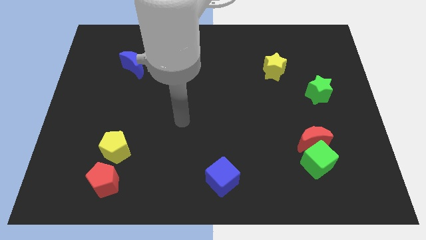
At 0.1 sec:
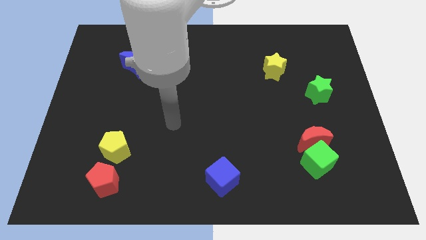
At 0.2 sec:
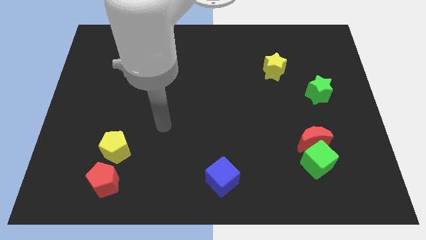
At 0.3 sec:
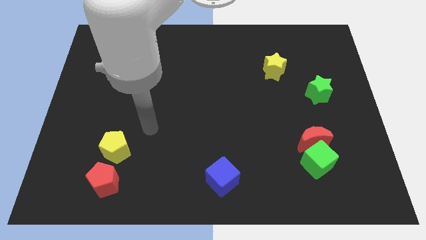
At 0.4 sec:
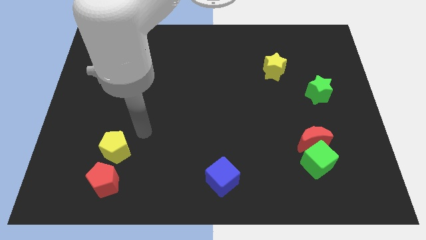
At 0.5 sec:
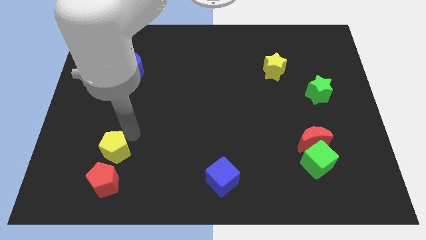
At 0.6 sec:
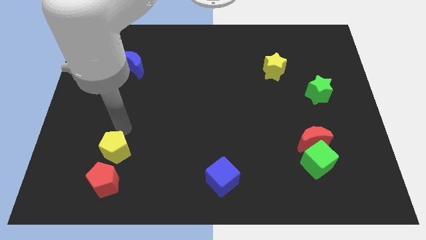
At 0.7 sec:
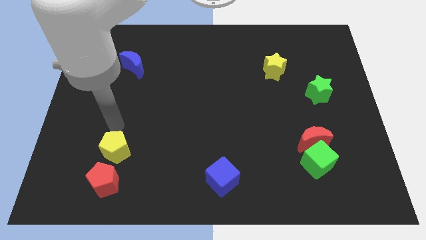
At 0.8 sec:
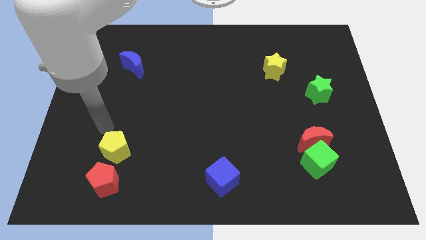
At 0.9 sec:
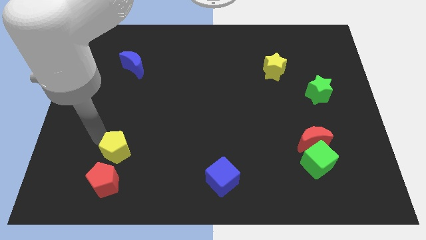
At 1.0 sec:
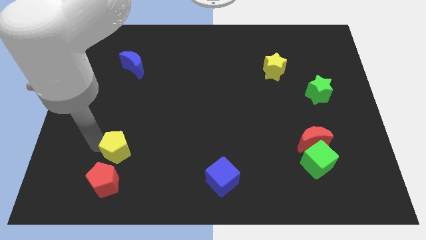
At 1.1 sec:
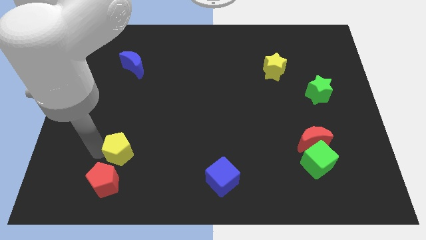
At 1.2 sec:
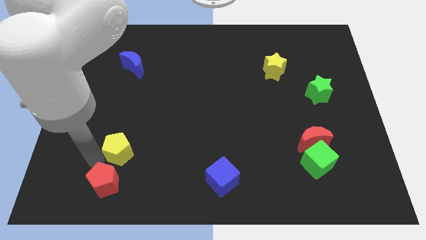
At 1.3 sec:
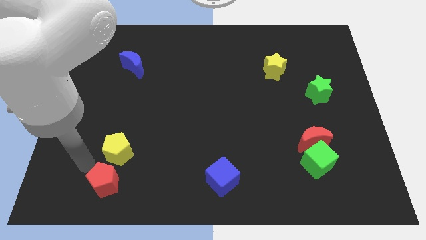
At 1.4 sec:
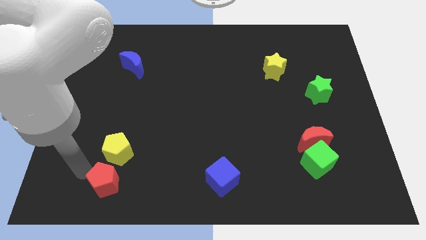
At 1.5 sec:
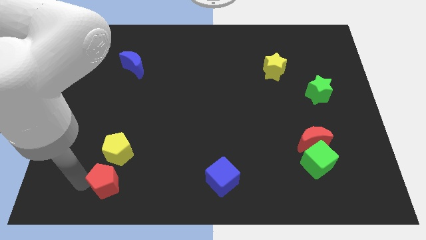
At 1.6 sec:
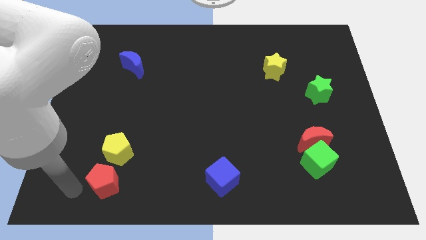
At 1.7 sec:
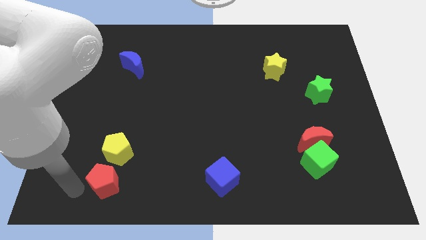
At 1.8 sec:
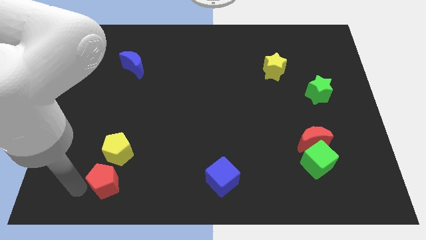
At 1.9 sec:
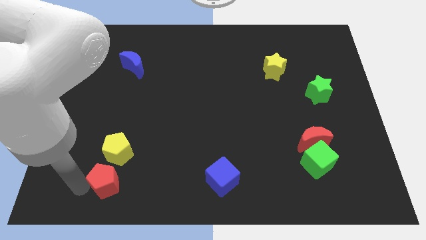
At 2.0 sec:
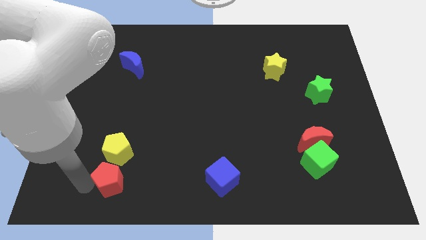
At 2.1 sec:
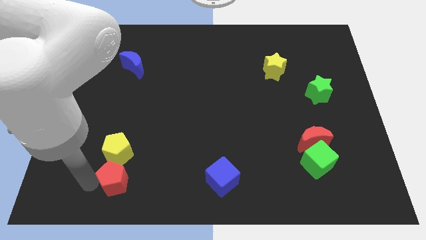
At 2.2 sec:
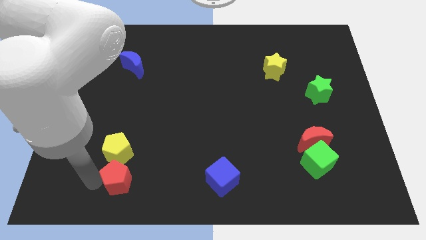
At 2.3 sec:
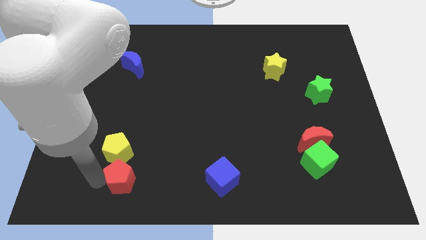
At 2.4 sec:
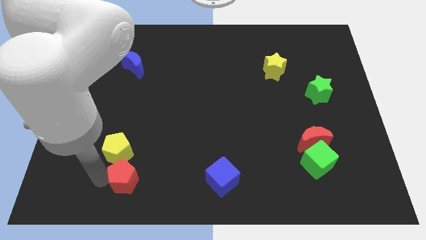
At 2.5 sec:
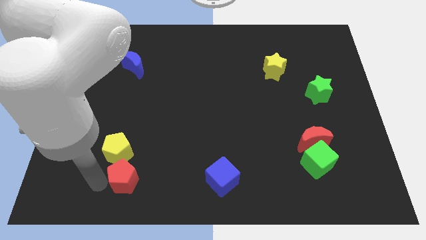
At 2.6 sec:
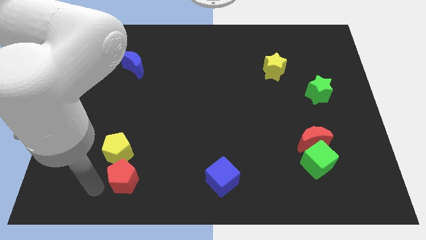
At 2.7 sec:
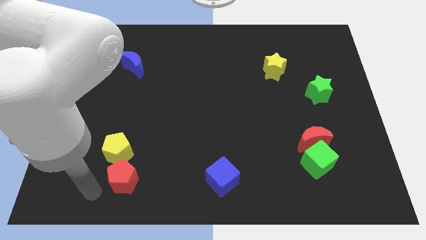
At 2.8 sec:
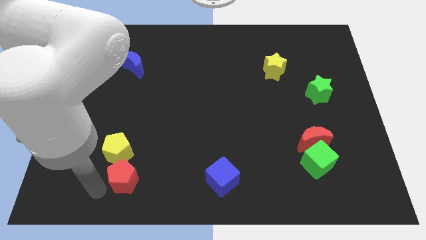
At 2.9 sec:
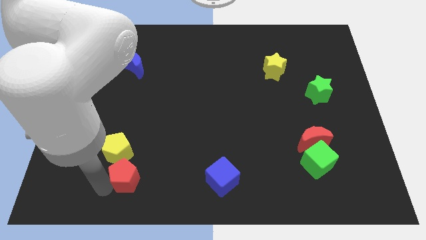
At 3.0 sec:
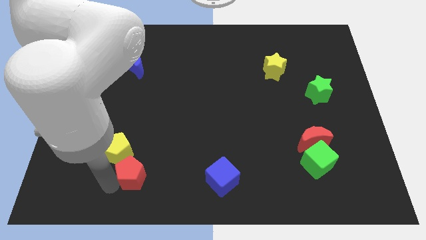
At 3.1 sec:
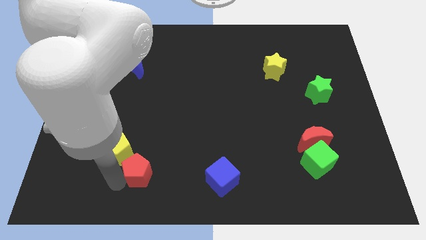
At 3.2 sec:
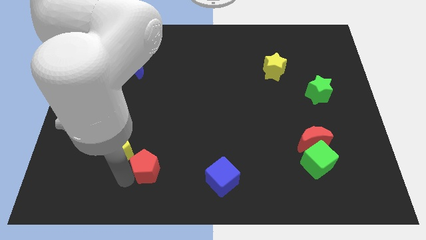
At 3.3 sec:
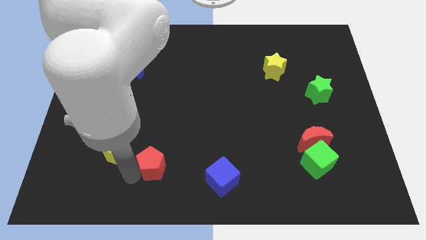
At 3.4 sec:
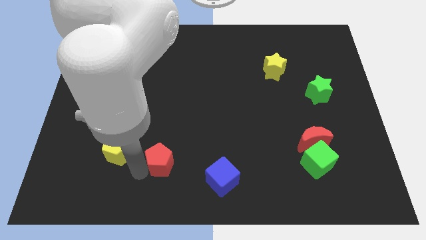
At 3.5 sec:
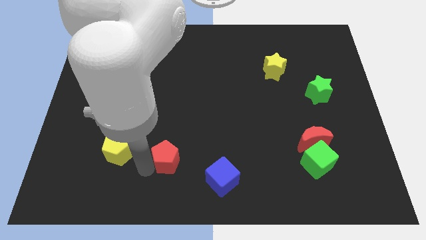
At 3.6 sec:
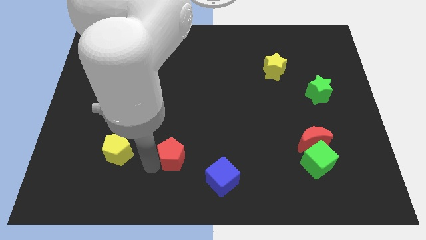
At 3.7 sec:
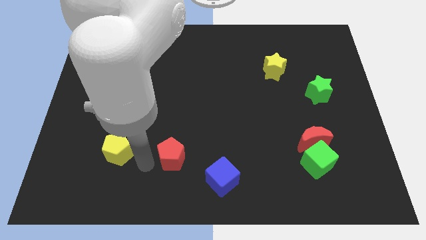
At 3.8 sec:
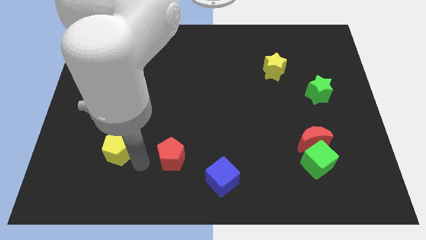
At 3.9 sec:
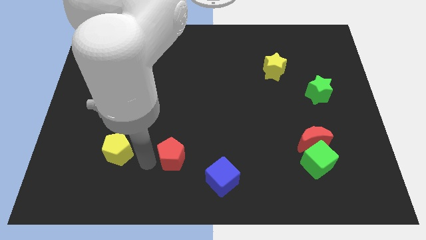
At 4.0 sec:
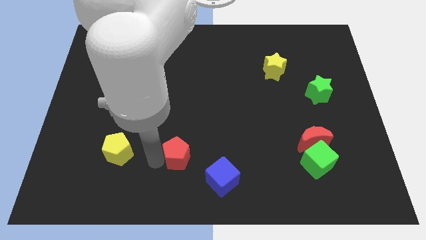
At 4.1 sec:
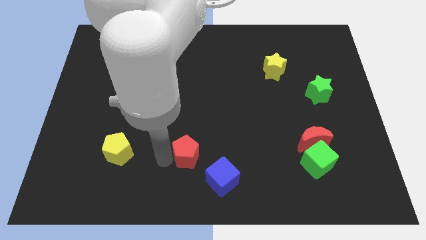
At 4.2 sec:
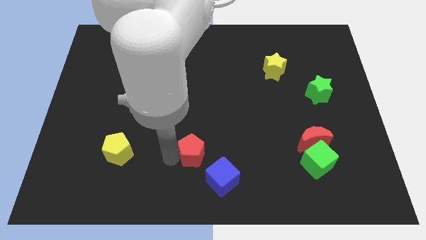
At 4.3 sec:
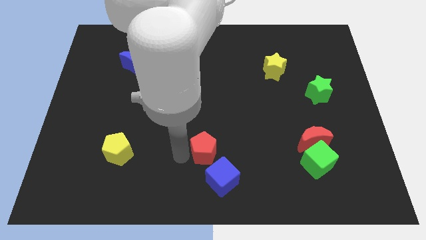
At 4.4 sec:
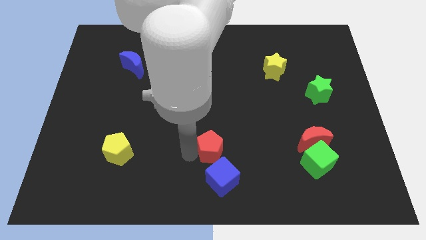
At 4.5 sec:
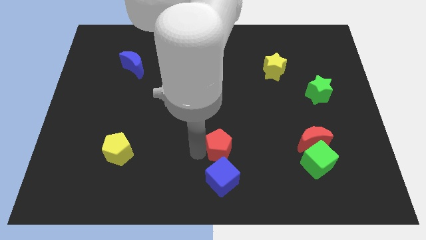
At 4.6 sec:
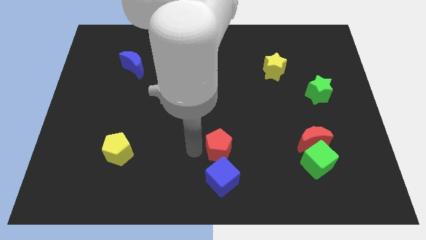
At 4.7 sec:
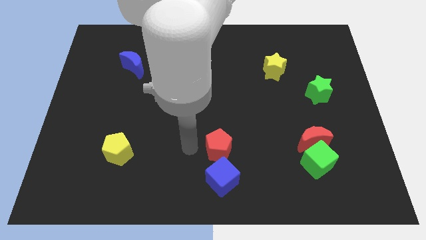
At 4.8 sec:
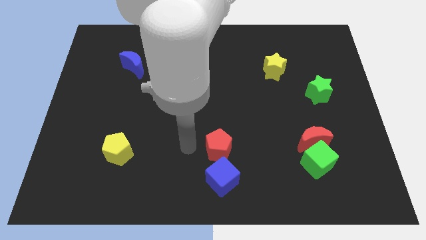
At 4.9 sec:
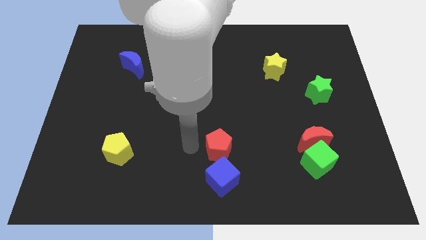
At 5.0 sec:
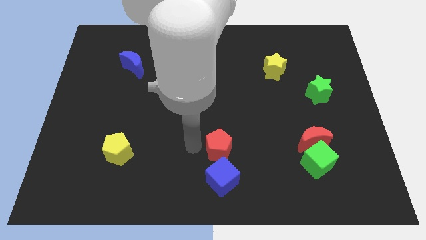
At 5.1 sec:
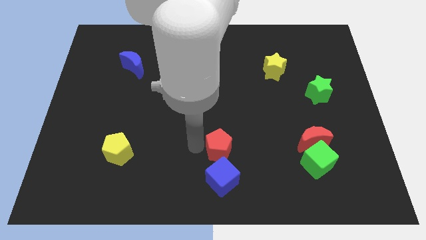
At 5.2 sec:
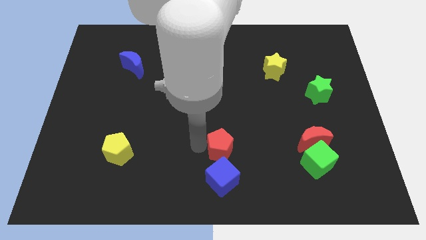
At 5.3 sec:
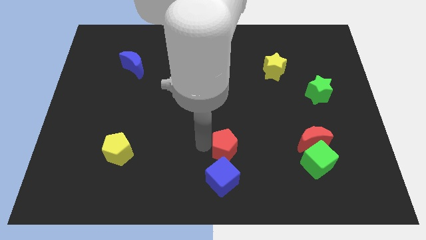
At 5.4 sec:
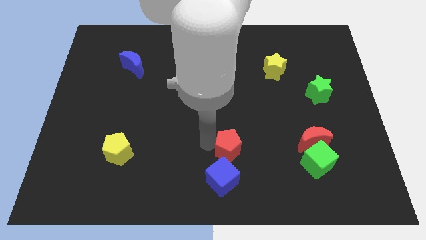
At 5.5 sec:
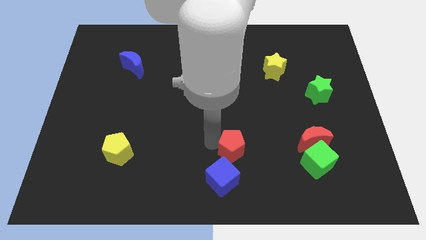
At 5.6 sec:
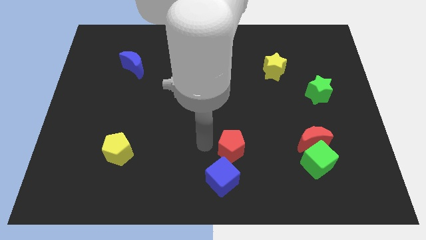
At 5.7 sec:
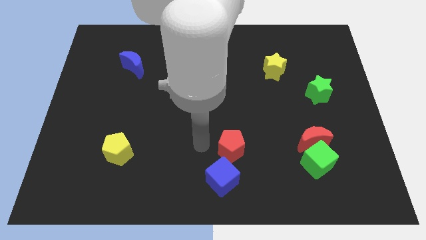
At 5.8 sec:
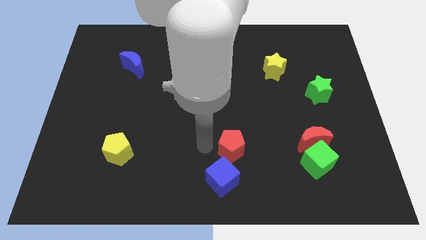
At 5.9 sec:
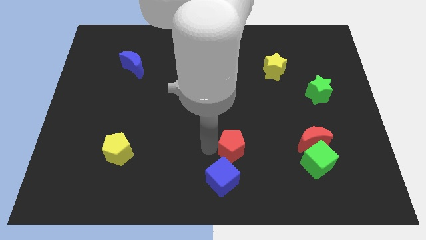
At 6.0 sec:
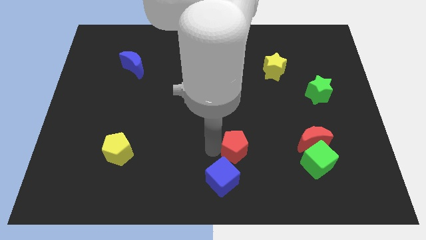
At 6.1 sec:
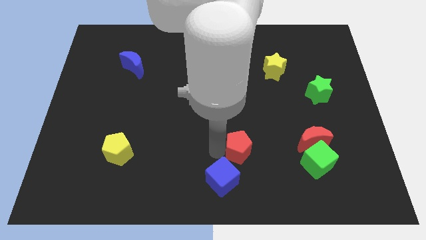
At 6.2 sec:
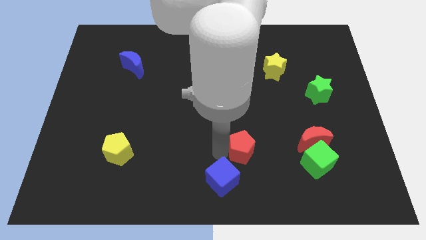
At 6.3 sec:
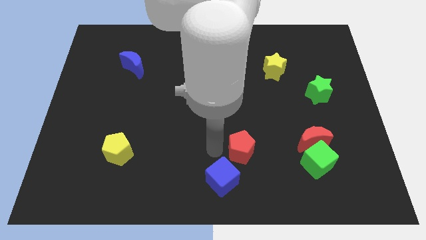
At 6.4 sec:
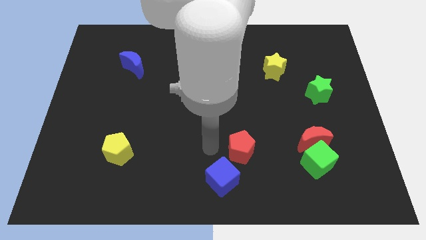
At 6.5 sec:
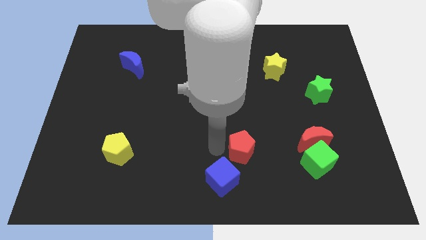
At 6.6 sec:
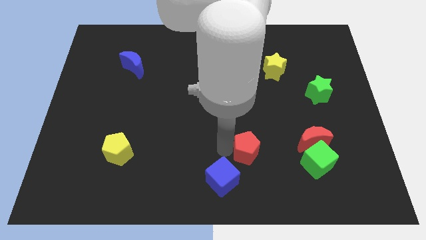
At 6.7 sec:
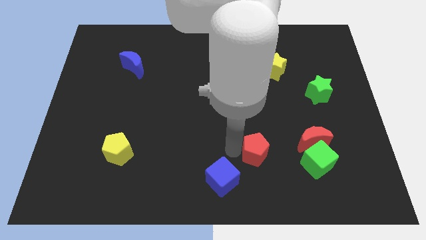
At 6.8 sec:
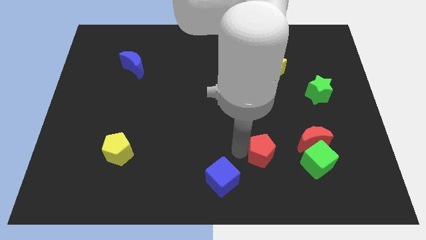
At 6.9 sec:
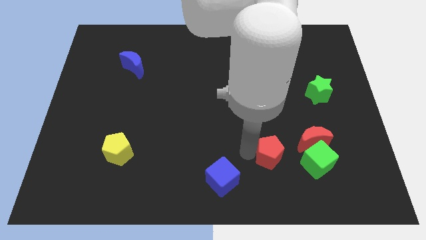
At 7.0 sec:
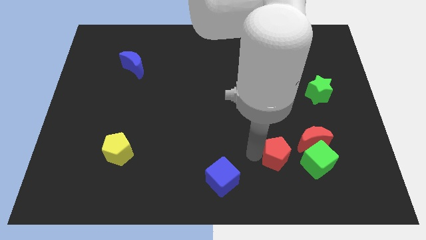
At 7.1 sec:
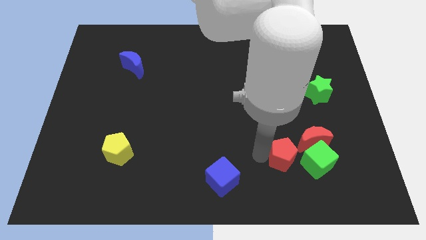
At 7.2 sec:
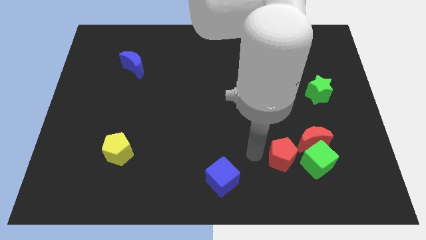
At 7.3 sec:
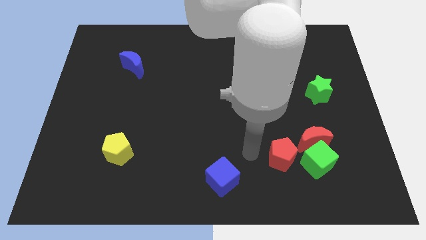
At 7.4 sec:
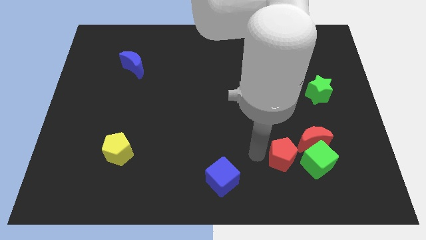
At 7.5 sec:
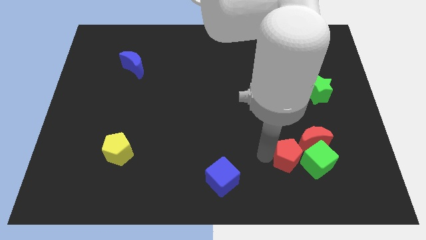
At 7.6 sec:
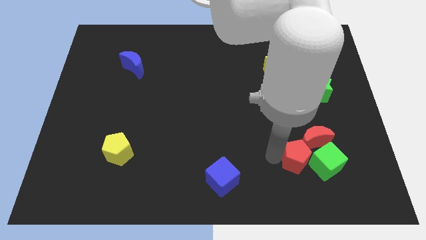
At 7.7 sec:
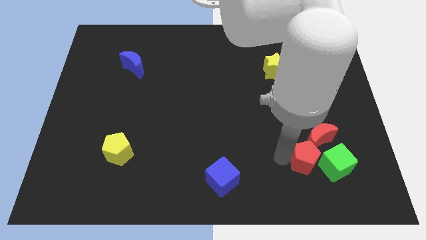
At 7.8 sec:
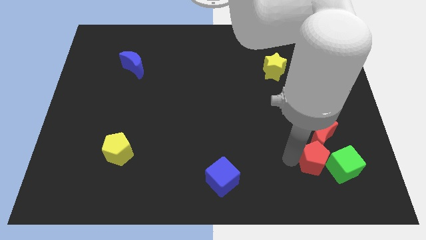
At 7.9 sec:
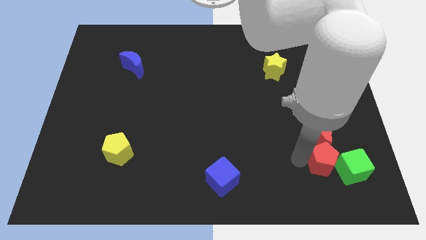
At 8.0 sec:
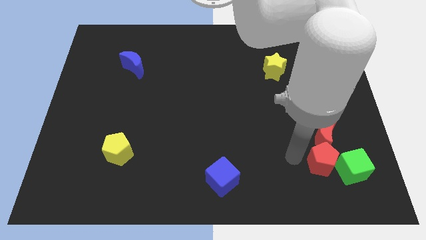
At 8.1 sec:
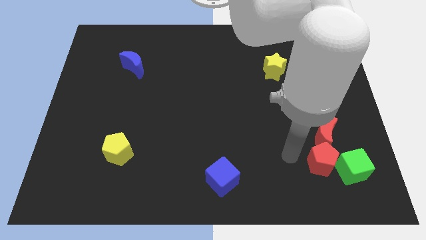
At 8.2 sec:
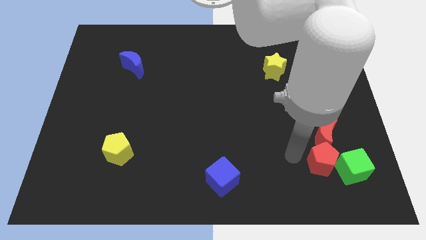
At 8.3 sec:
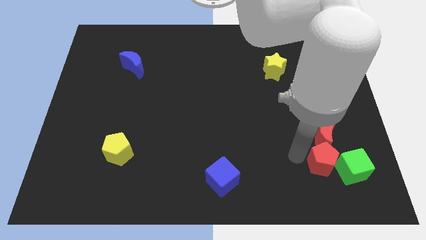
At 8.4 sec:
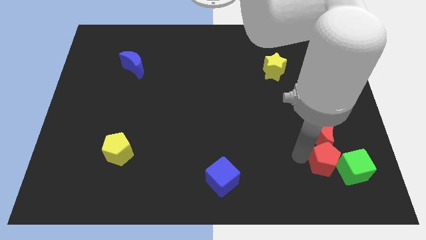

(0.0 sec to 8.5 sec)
push the red pentagon close to the green cube
